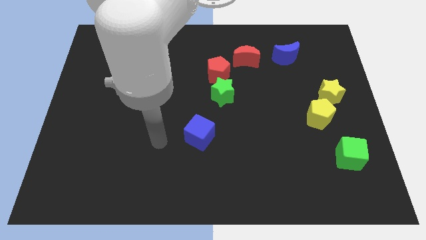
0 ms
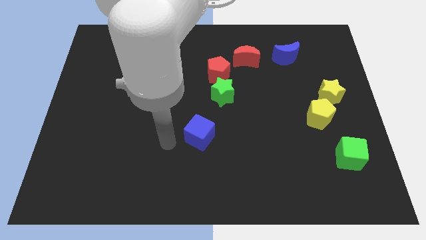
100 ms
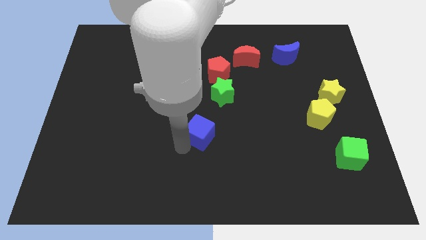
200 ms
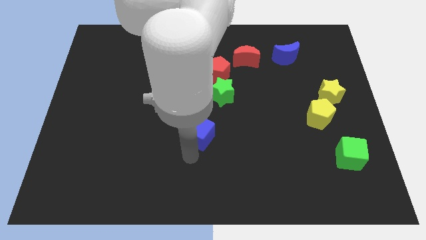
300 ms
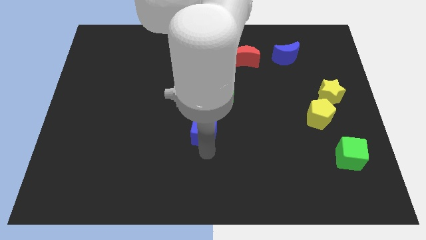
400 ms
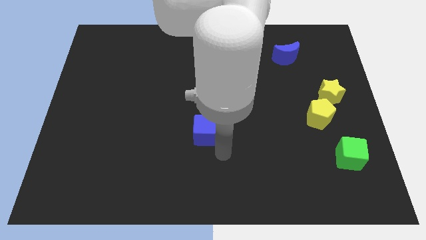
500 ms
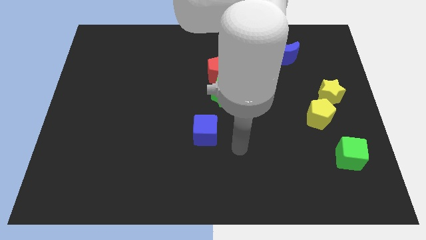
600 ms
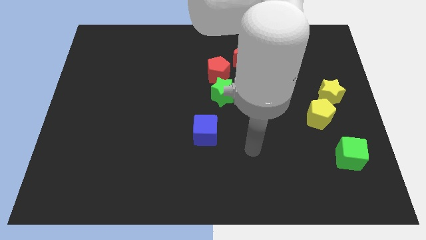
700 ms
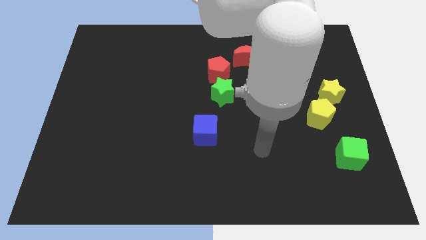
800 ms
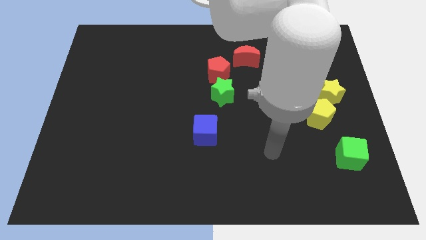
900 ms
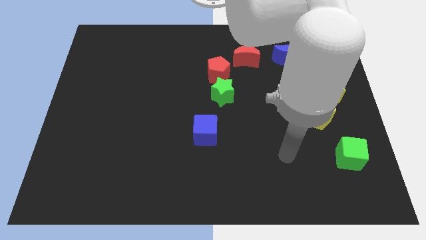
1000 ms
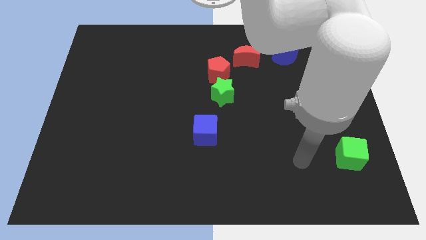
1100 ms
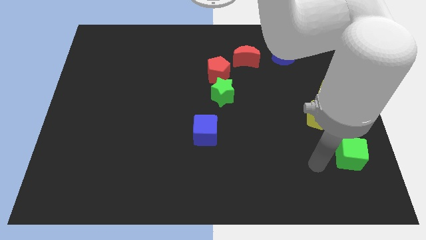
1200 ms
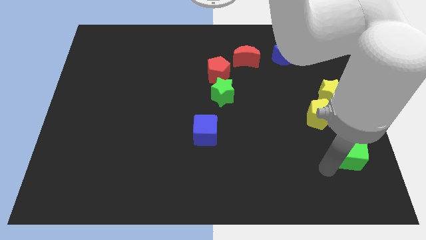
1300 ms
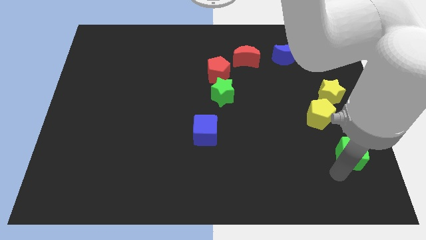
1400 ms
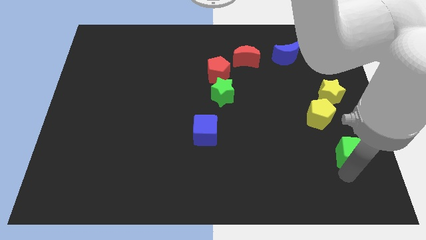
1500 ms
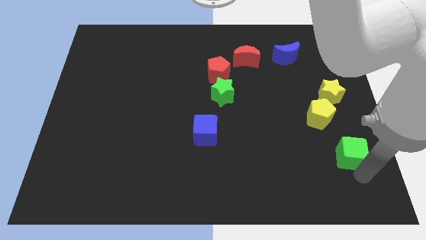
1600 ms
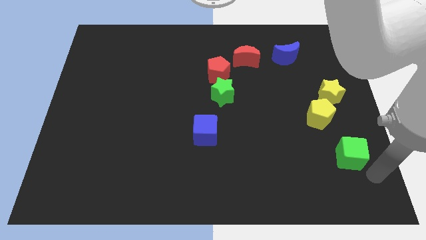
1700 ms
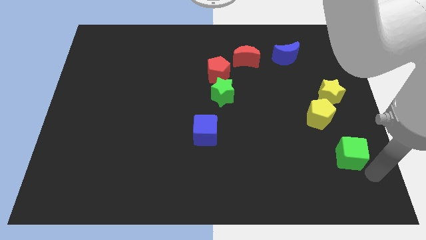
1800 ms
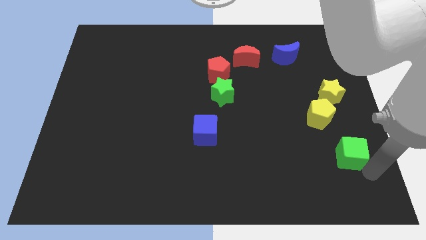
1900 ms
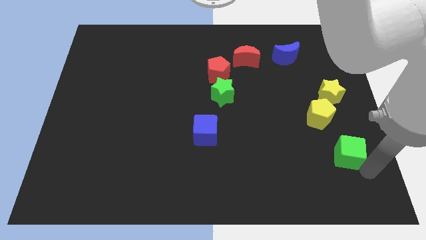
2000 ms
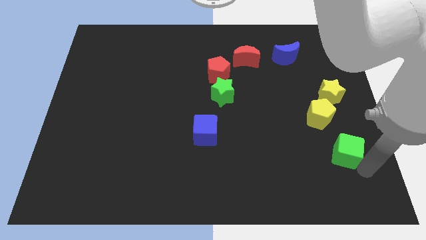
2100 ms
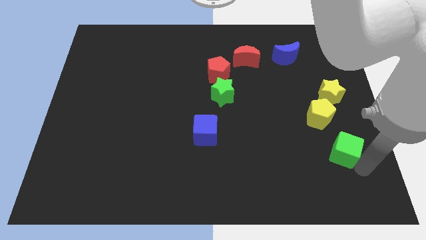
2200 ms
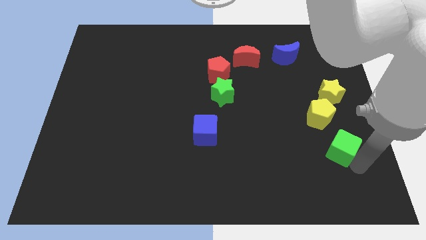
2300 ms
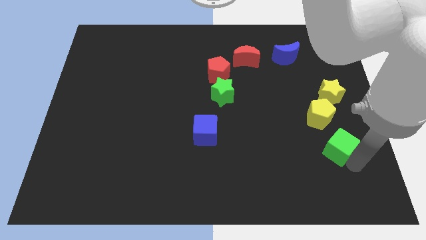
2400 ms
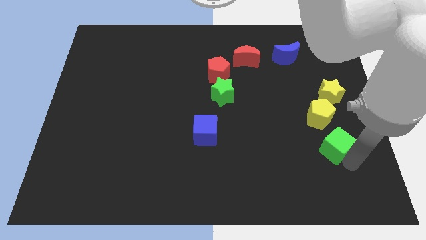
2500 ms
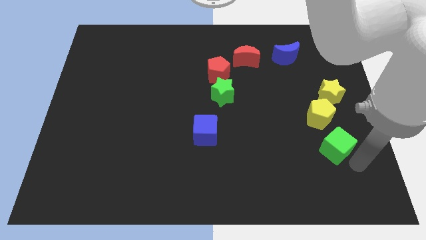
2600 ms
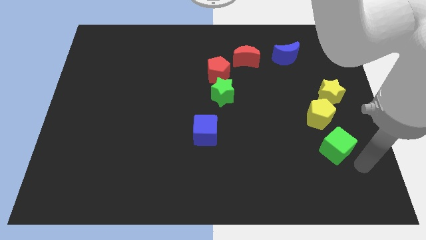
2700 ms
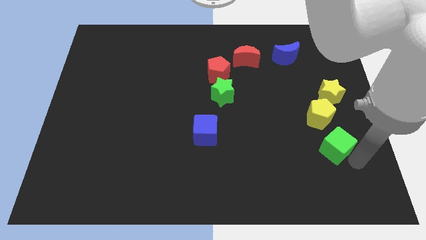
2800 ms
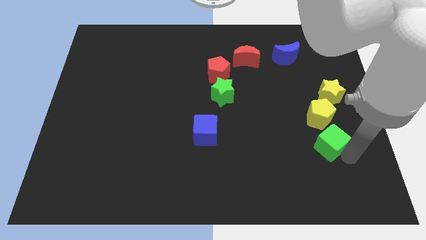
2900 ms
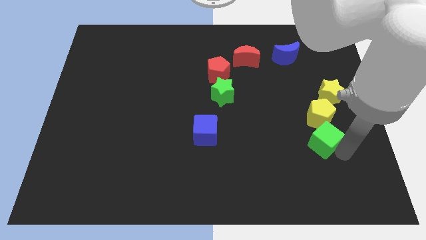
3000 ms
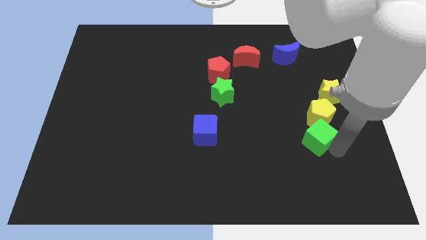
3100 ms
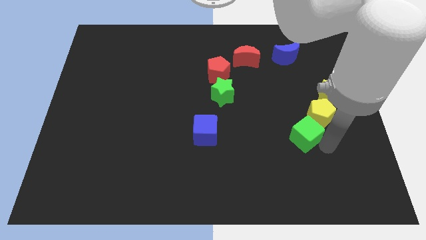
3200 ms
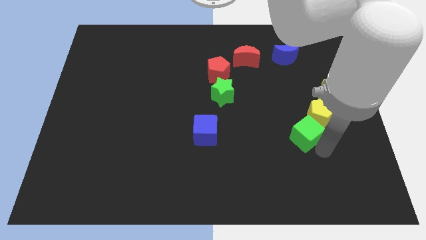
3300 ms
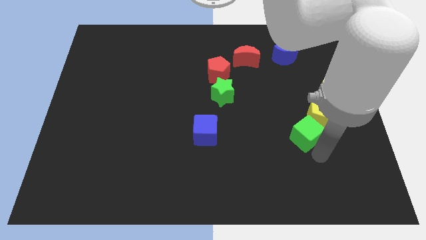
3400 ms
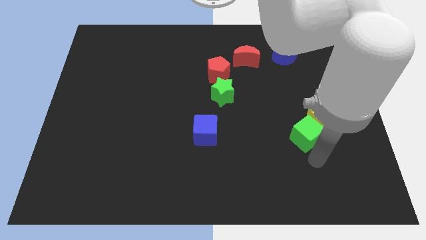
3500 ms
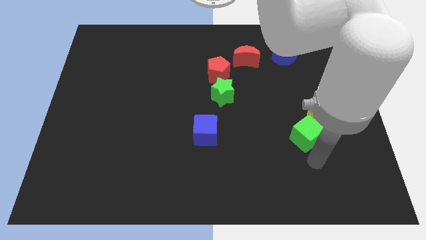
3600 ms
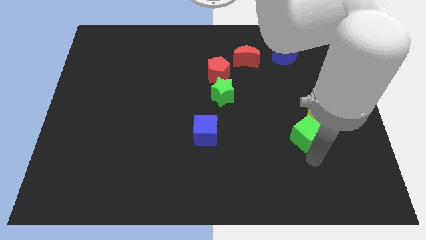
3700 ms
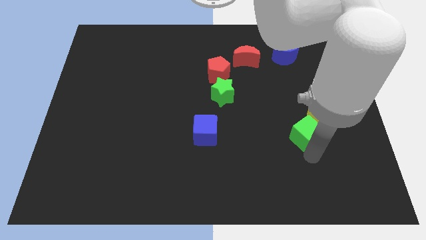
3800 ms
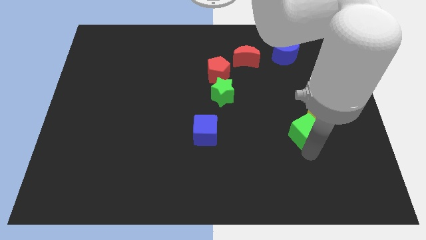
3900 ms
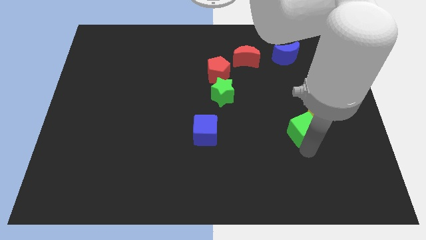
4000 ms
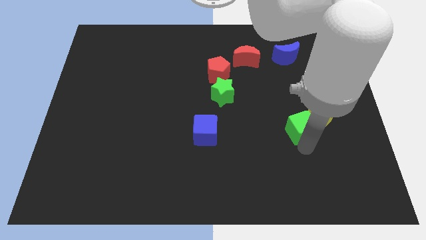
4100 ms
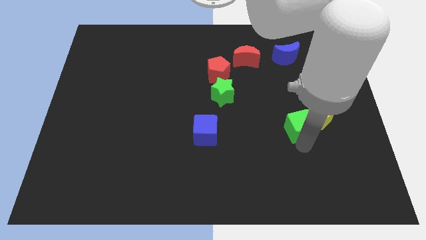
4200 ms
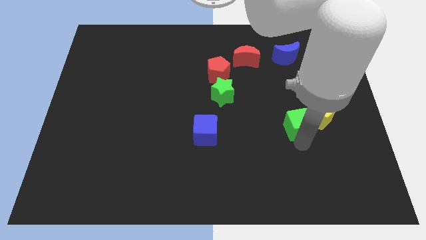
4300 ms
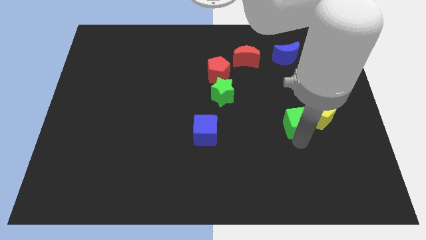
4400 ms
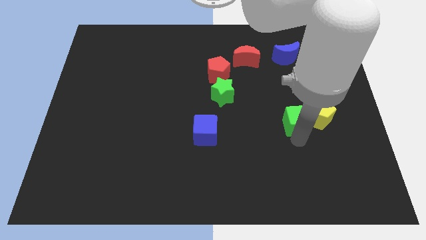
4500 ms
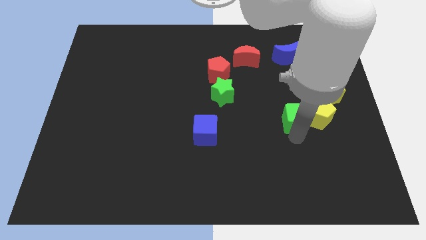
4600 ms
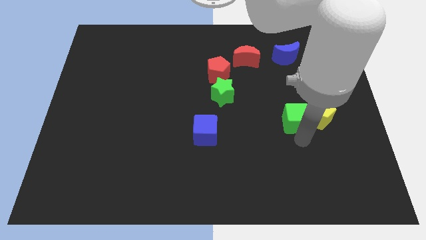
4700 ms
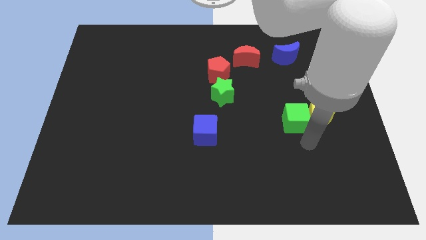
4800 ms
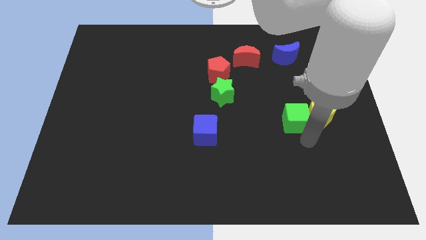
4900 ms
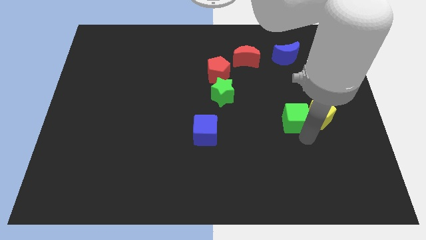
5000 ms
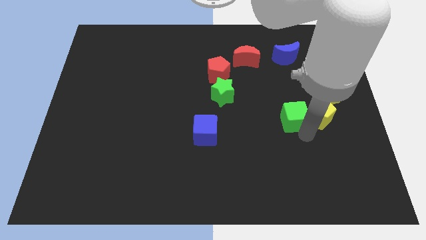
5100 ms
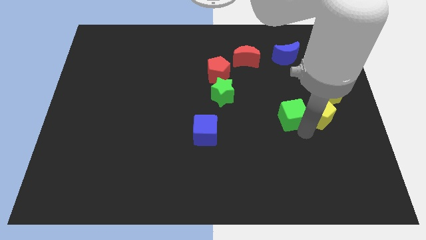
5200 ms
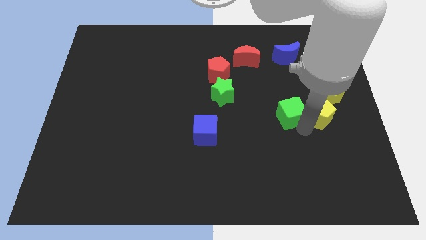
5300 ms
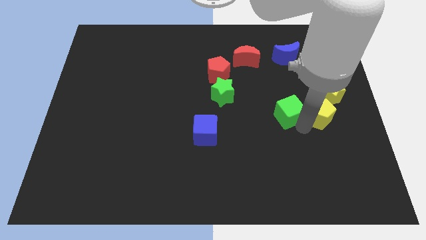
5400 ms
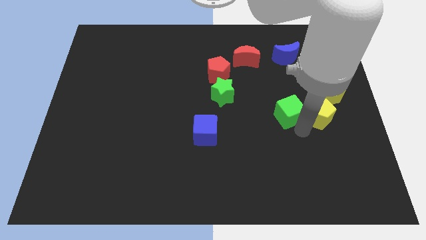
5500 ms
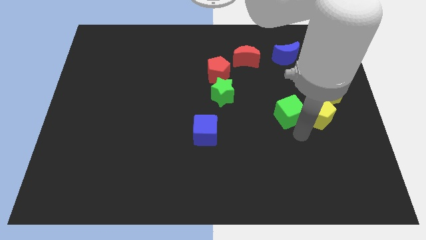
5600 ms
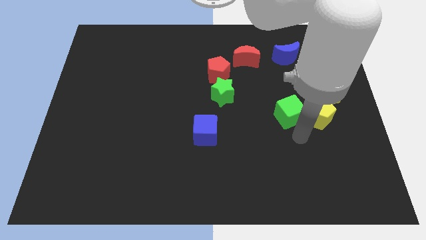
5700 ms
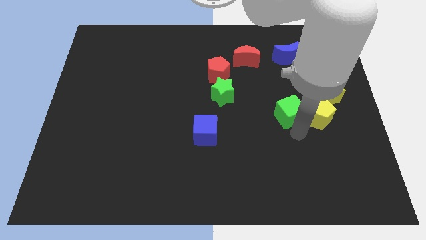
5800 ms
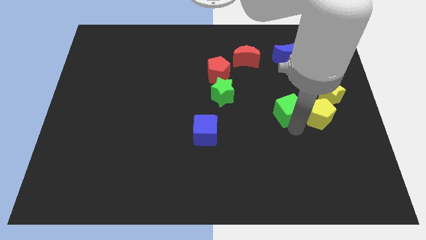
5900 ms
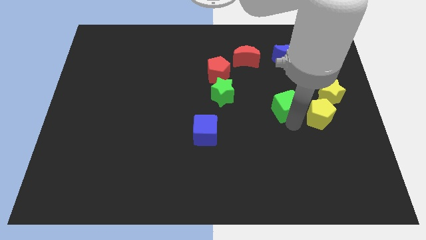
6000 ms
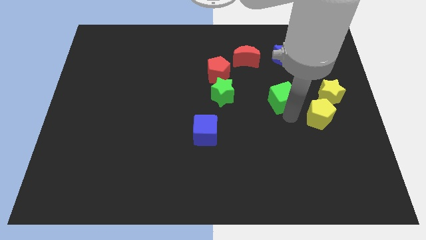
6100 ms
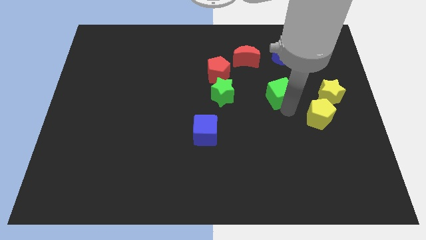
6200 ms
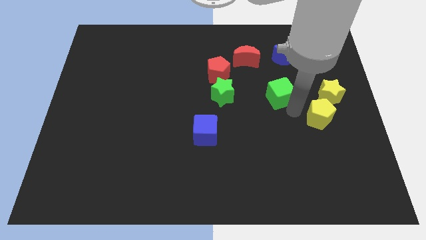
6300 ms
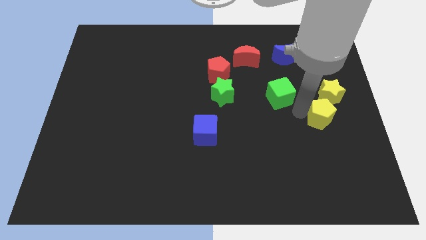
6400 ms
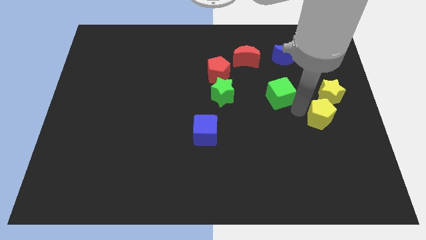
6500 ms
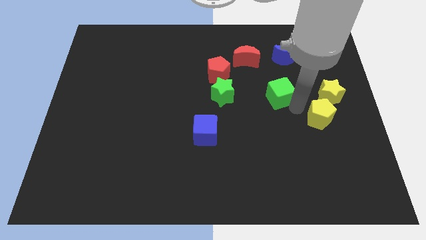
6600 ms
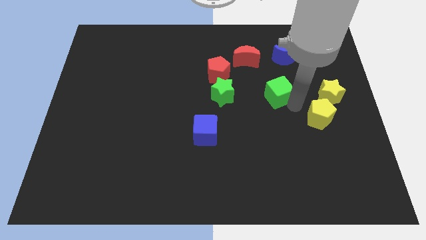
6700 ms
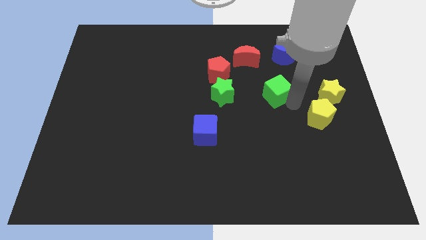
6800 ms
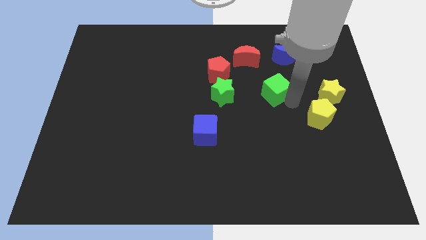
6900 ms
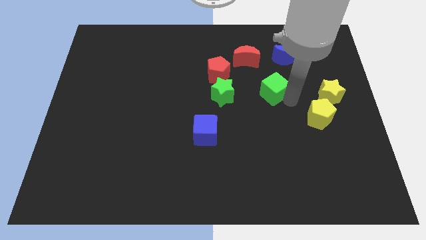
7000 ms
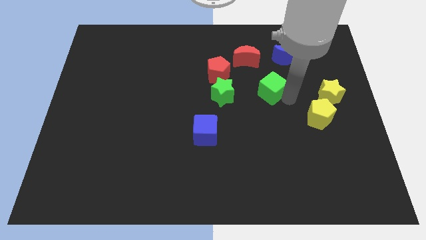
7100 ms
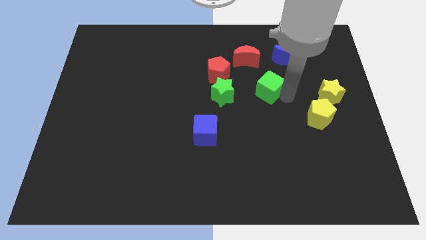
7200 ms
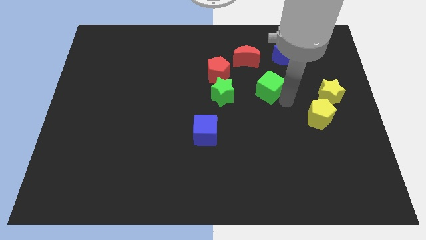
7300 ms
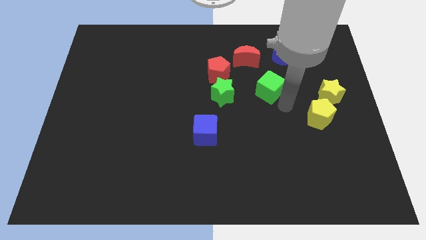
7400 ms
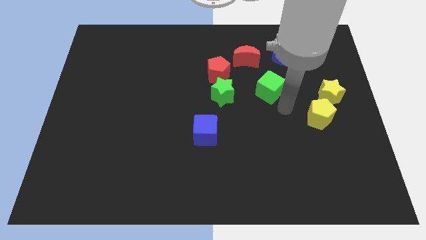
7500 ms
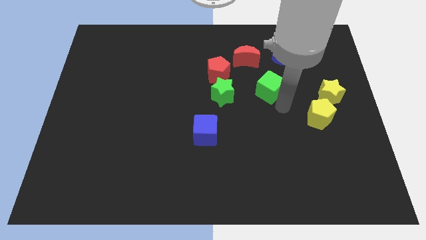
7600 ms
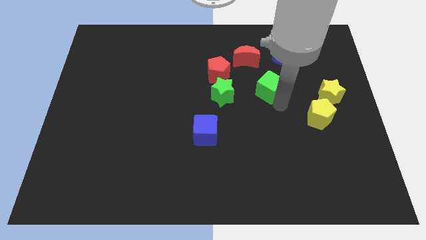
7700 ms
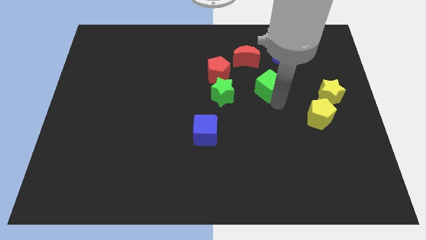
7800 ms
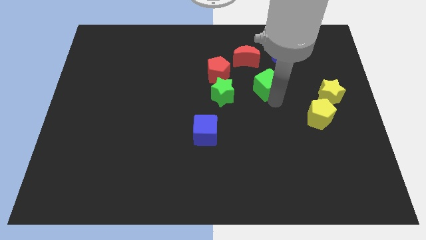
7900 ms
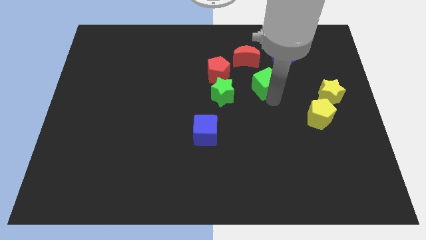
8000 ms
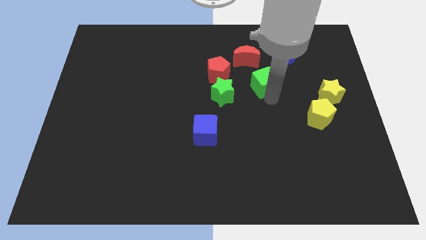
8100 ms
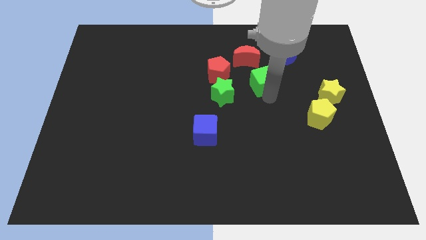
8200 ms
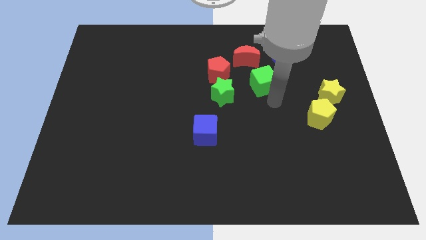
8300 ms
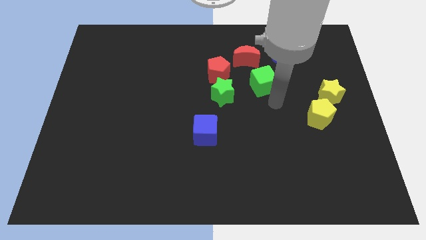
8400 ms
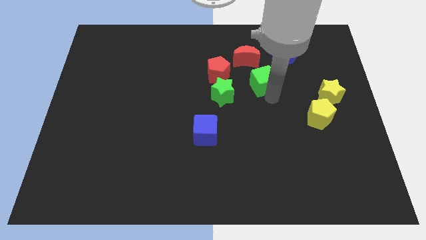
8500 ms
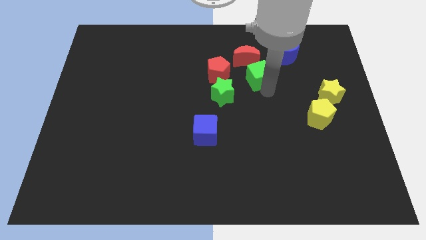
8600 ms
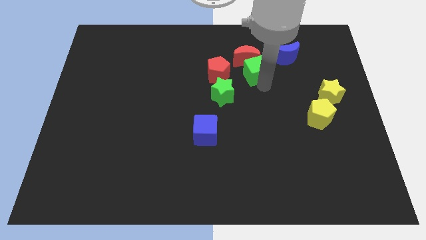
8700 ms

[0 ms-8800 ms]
put the green cube next to the red moon
